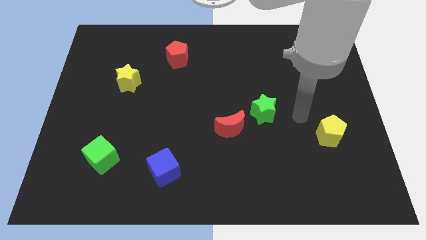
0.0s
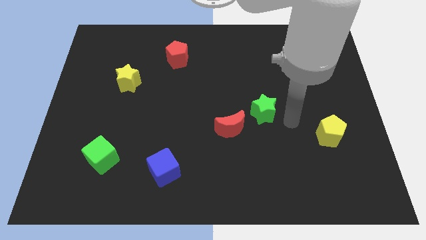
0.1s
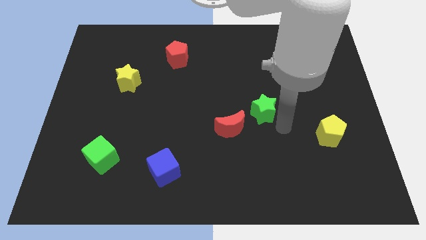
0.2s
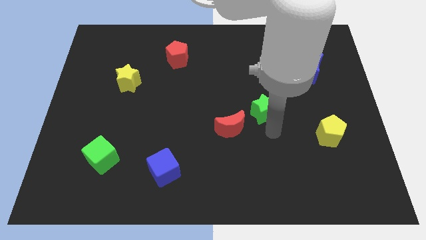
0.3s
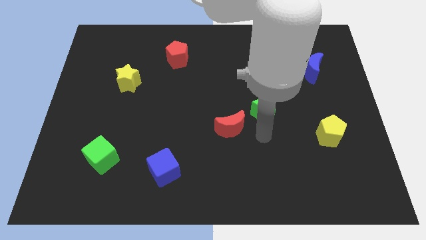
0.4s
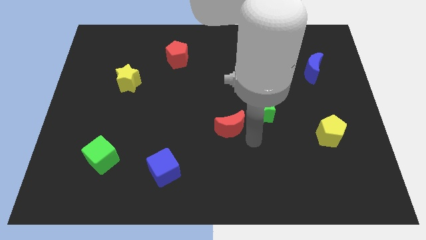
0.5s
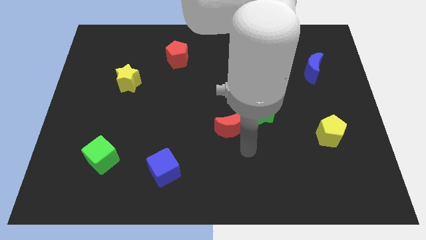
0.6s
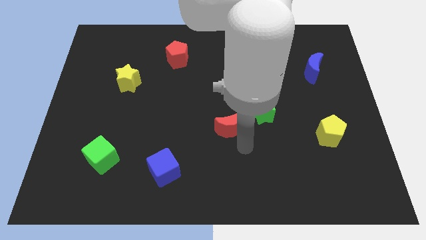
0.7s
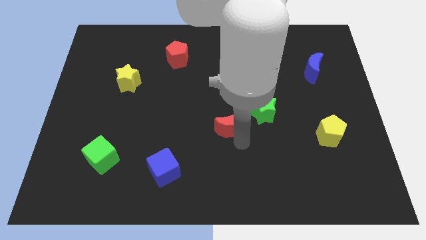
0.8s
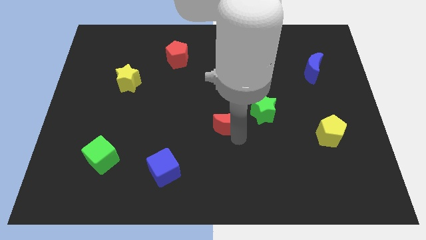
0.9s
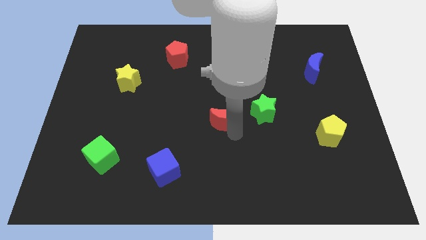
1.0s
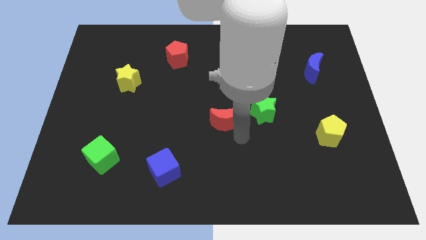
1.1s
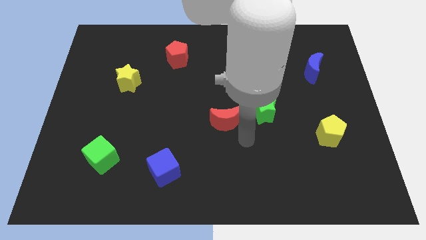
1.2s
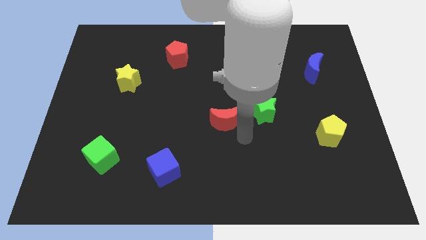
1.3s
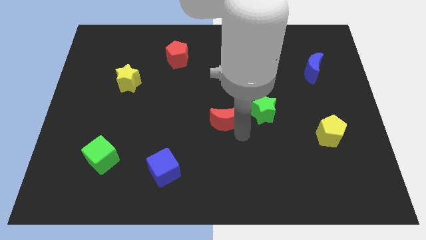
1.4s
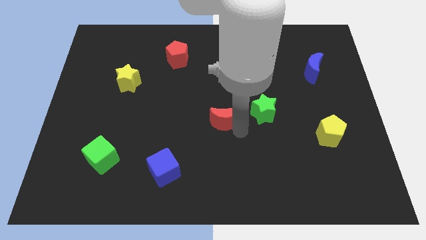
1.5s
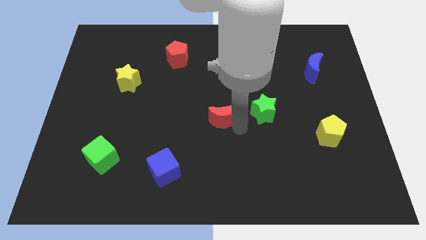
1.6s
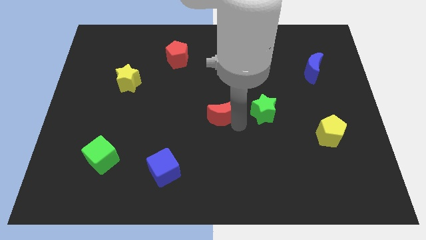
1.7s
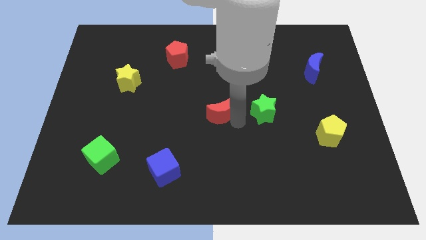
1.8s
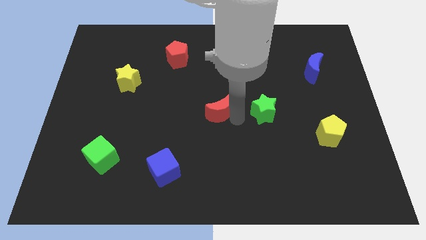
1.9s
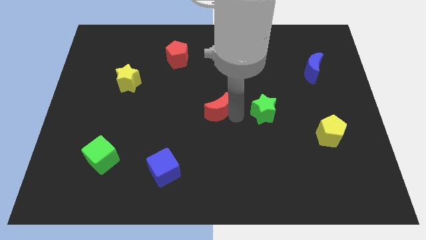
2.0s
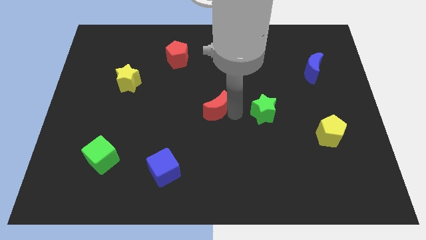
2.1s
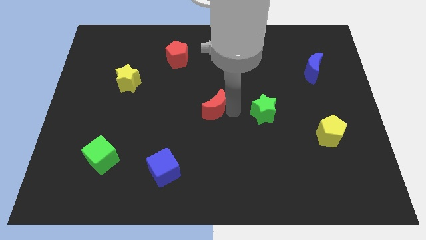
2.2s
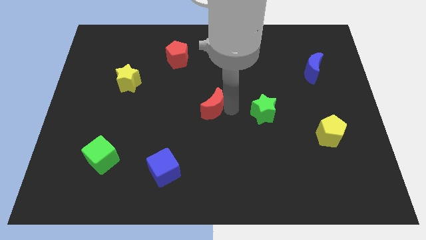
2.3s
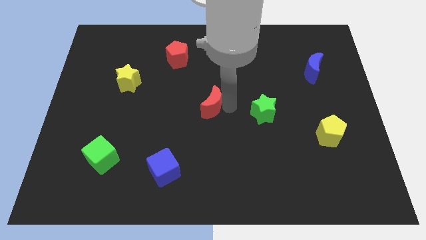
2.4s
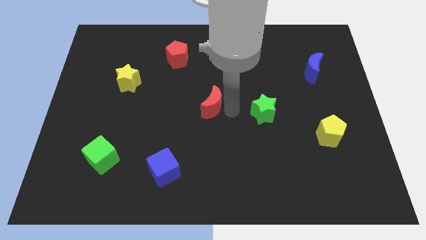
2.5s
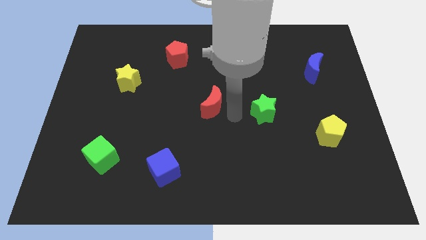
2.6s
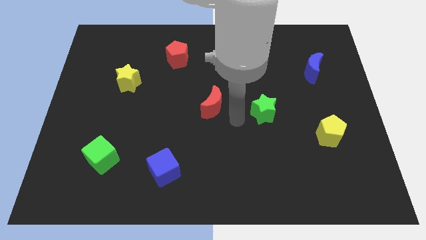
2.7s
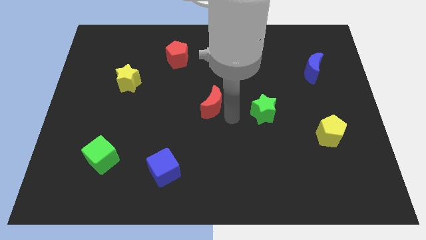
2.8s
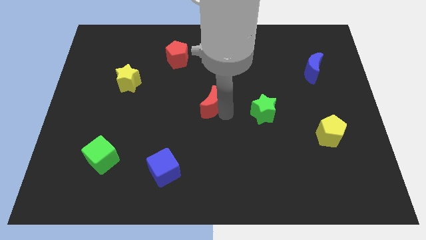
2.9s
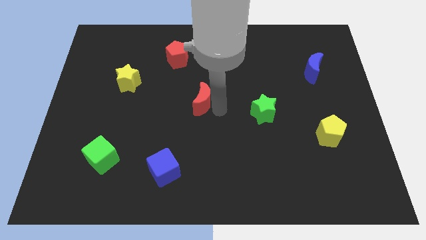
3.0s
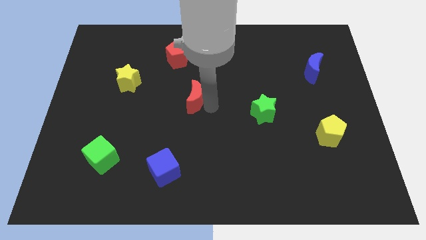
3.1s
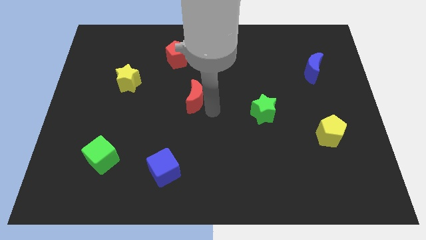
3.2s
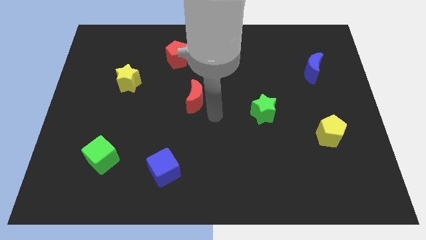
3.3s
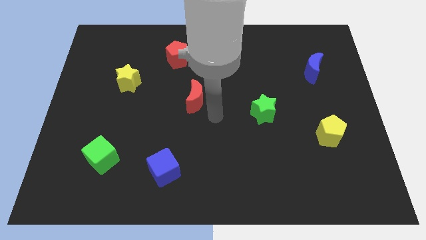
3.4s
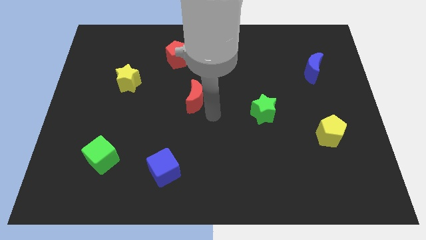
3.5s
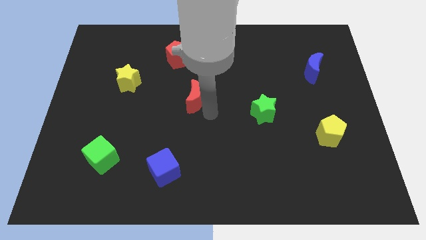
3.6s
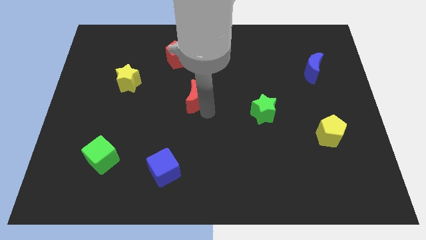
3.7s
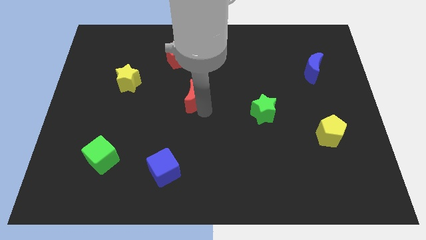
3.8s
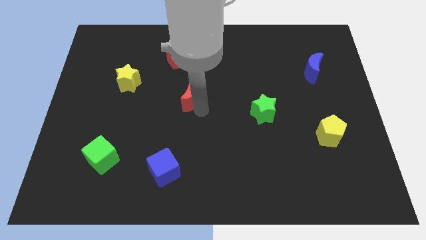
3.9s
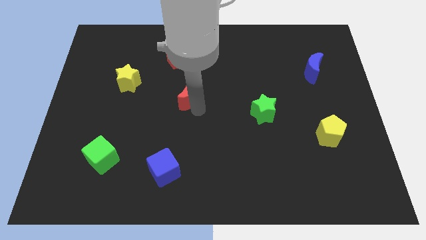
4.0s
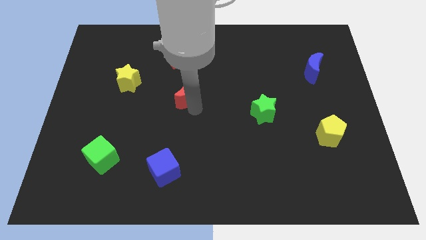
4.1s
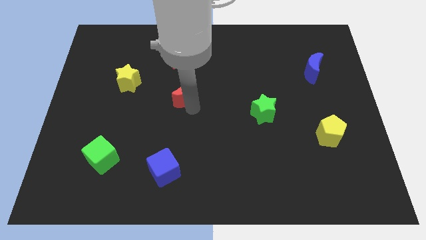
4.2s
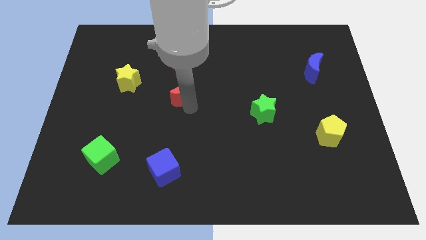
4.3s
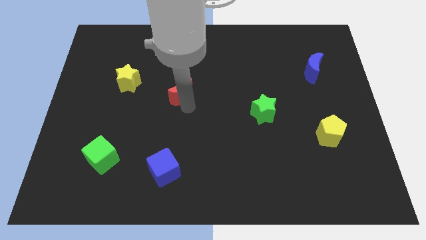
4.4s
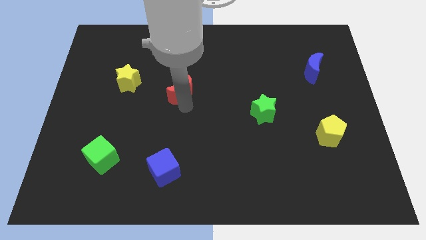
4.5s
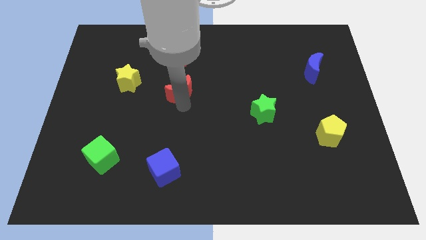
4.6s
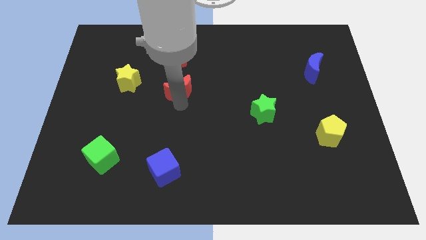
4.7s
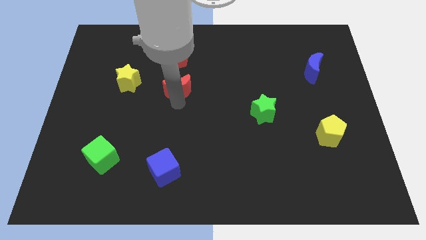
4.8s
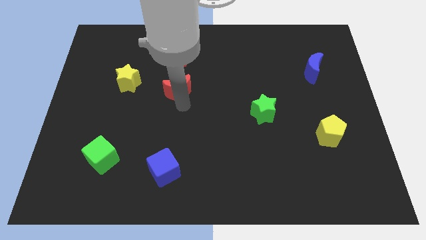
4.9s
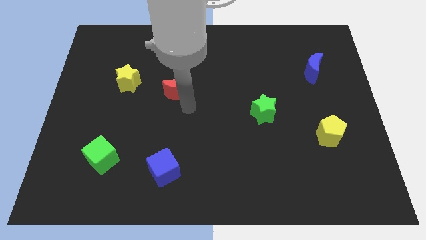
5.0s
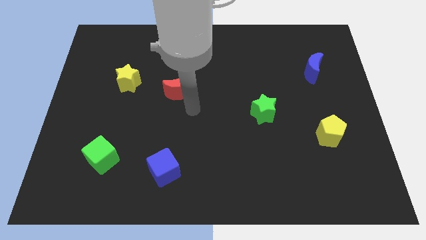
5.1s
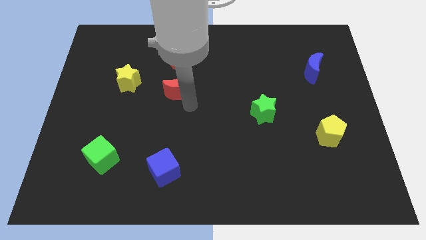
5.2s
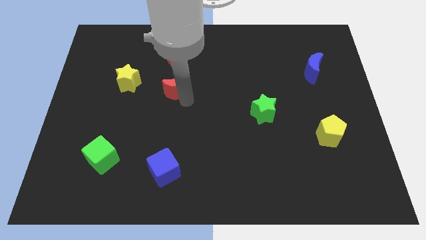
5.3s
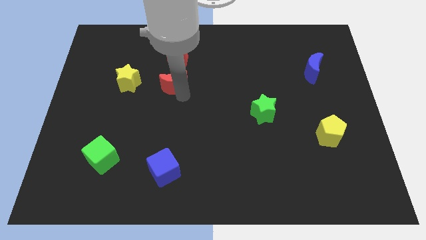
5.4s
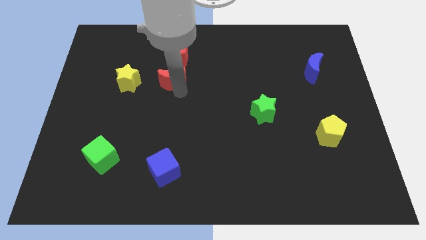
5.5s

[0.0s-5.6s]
push the red moon up and to the left

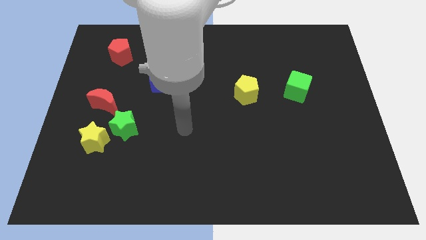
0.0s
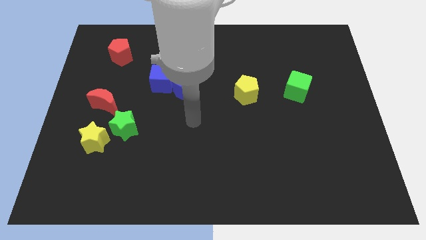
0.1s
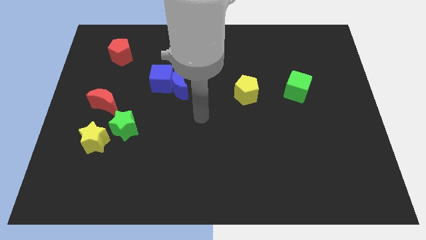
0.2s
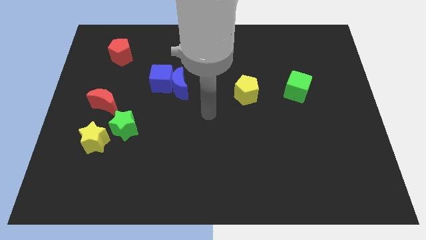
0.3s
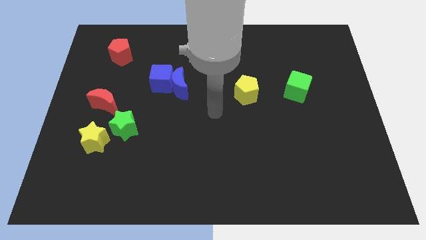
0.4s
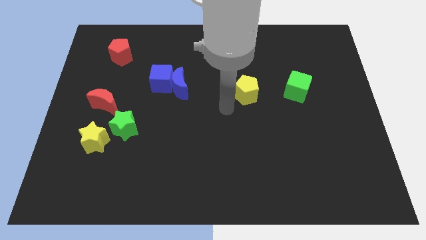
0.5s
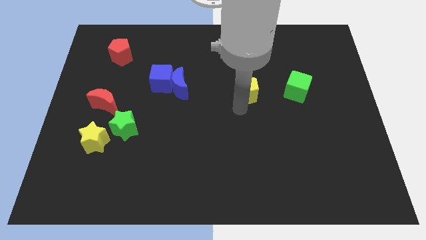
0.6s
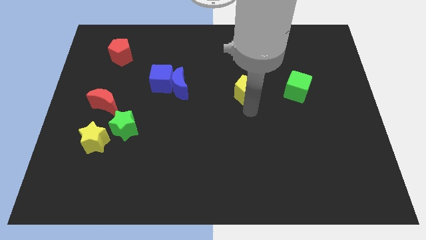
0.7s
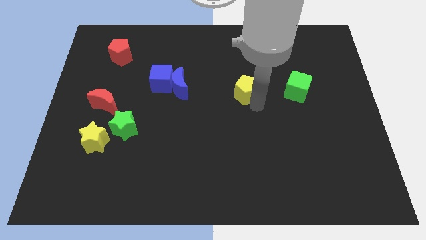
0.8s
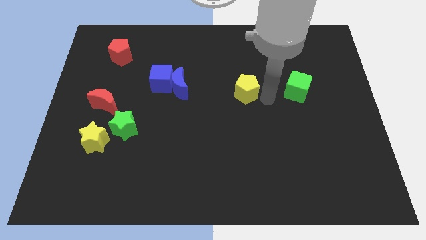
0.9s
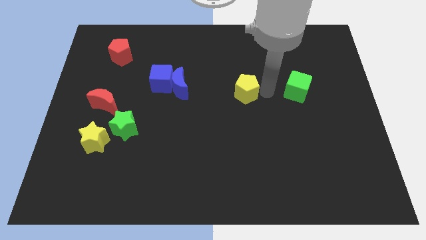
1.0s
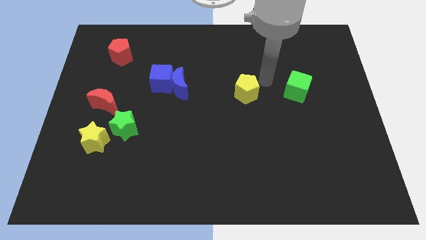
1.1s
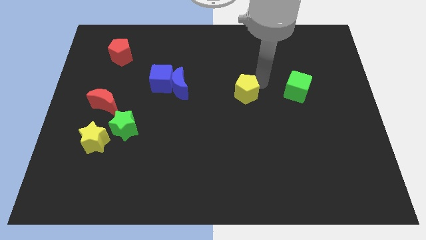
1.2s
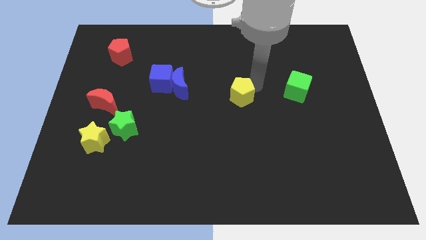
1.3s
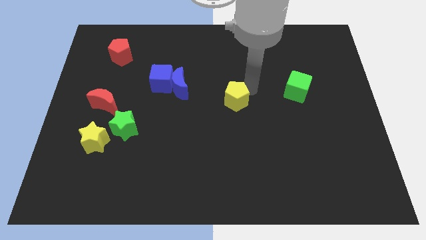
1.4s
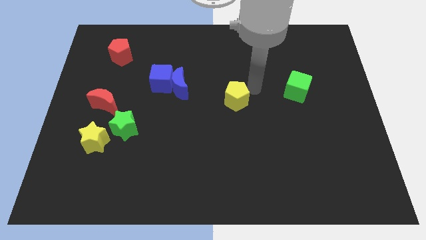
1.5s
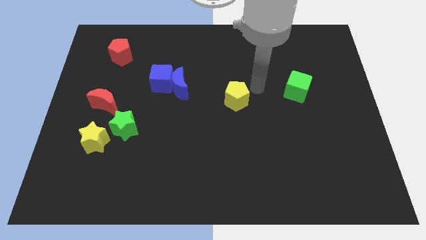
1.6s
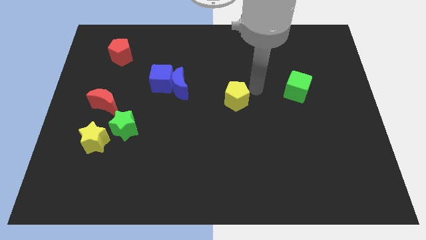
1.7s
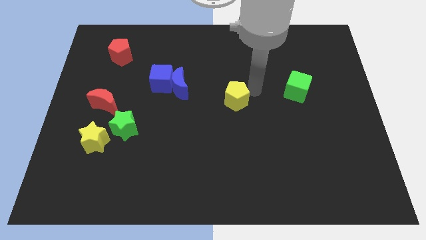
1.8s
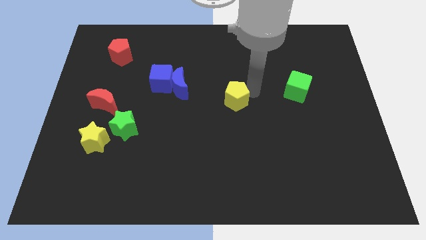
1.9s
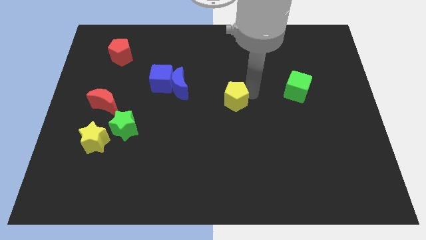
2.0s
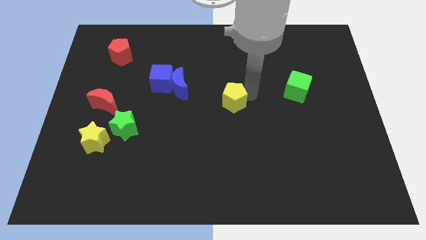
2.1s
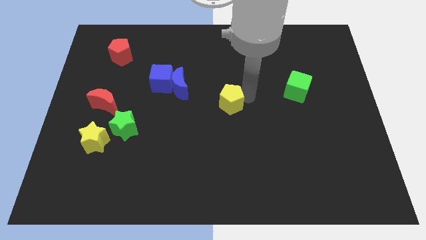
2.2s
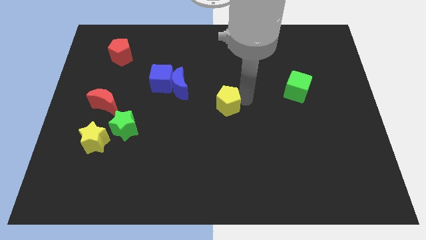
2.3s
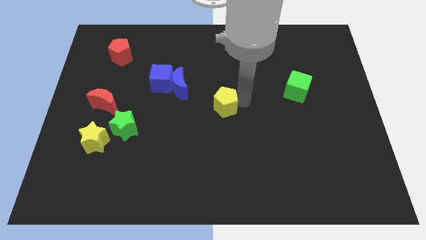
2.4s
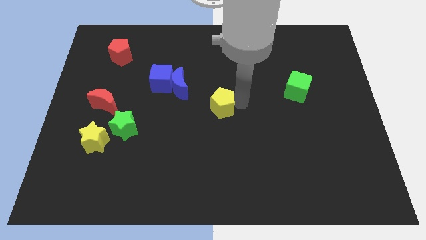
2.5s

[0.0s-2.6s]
slide the yellow pentagon somewhat downwards and then to the left
